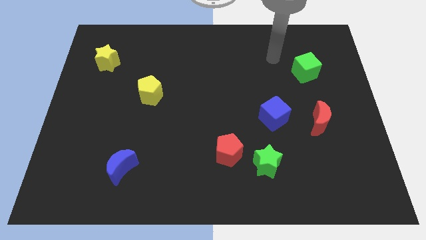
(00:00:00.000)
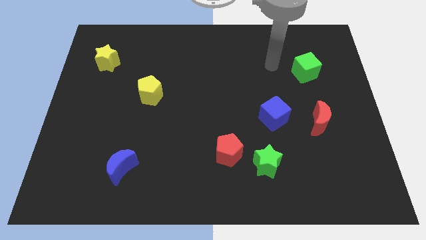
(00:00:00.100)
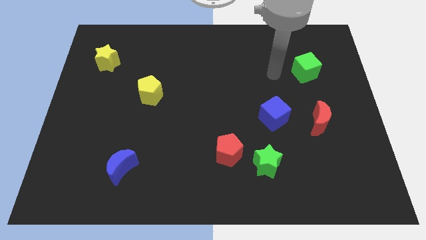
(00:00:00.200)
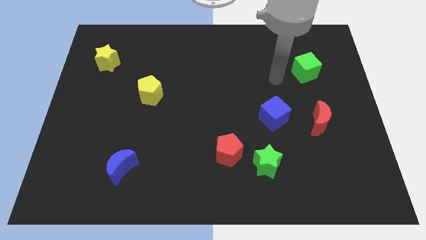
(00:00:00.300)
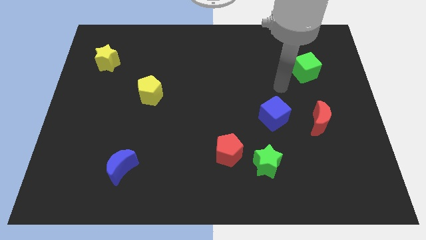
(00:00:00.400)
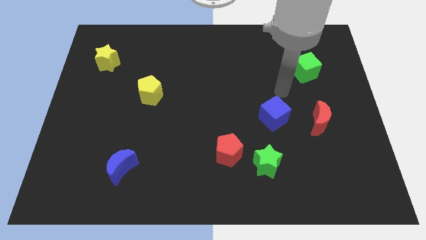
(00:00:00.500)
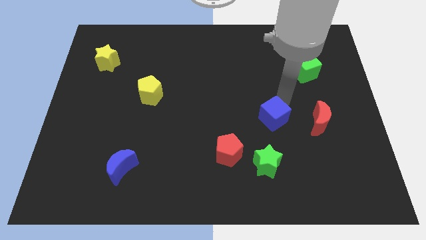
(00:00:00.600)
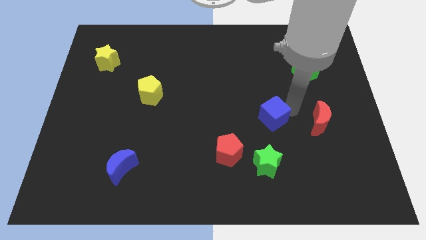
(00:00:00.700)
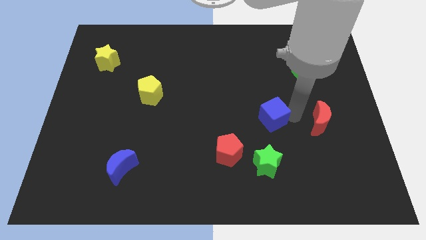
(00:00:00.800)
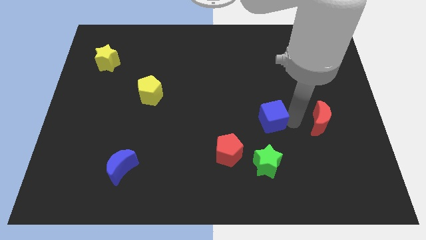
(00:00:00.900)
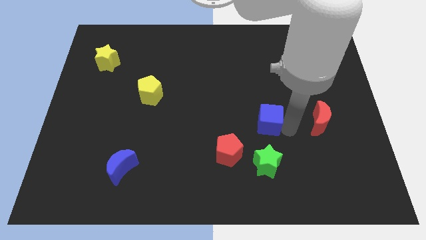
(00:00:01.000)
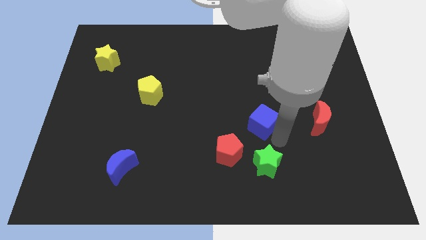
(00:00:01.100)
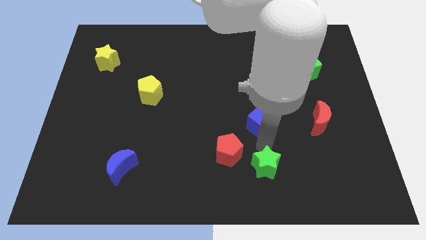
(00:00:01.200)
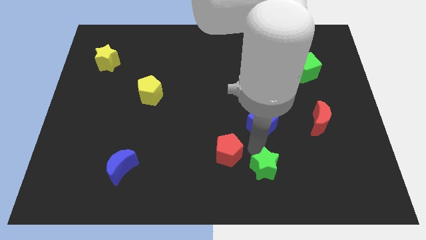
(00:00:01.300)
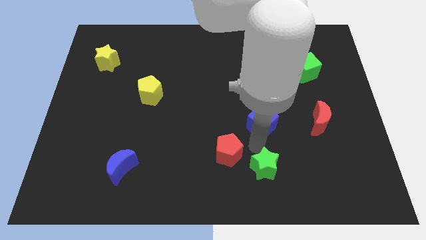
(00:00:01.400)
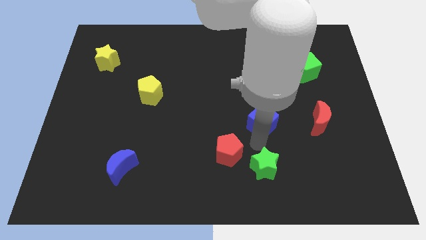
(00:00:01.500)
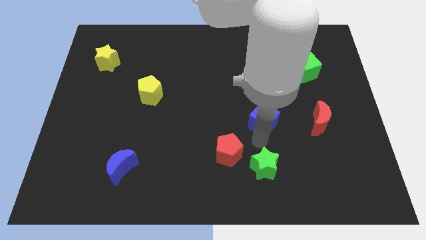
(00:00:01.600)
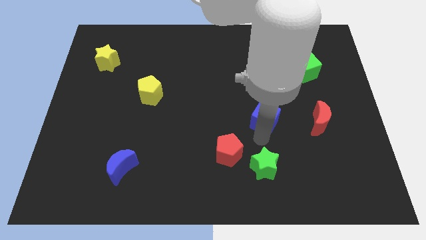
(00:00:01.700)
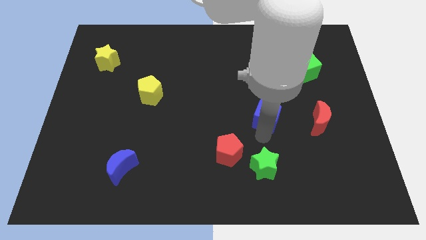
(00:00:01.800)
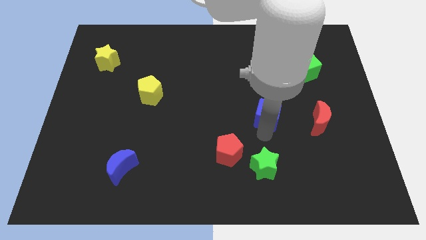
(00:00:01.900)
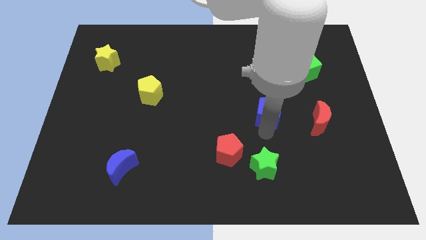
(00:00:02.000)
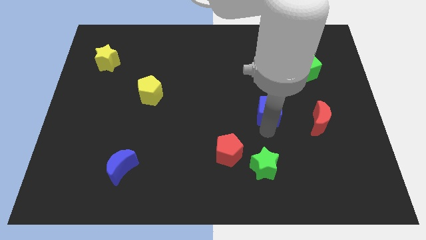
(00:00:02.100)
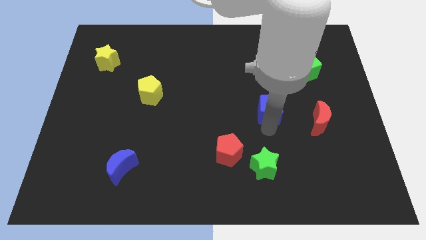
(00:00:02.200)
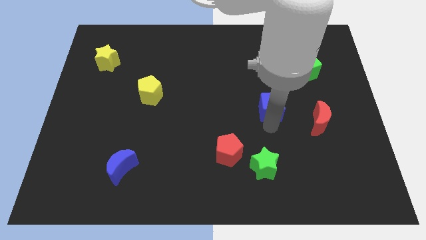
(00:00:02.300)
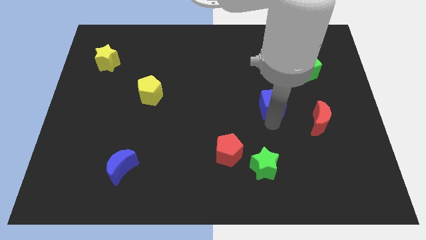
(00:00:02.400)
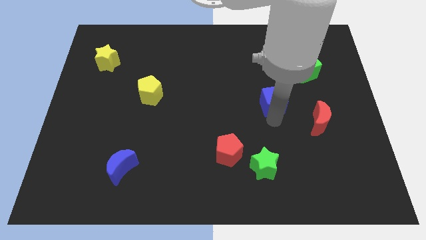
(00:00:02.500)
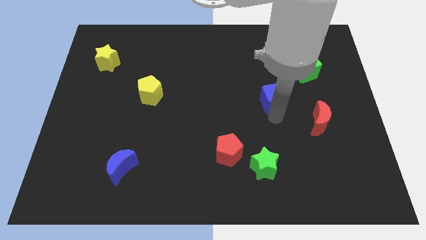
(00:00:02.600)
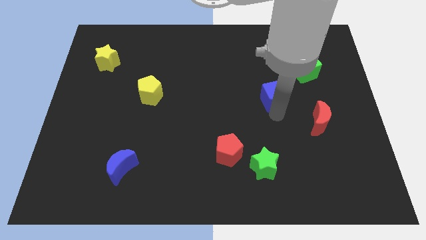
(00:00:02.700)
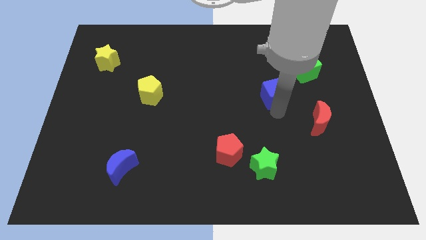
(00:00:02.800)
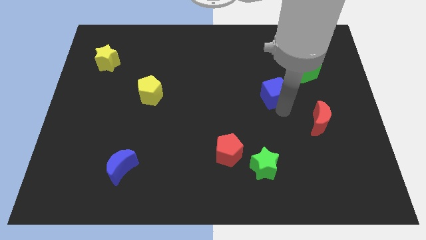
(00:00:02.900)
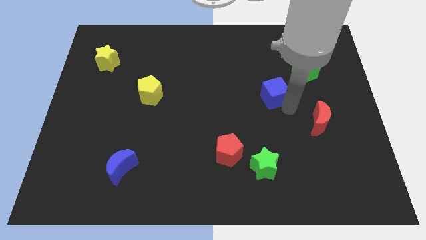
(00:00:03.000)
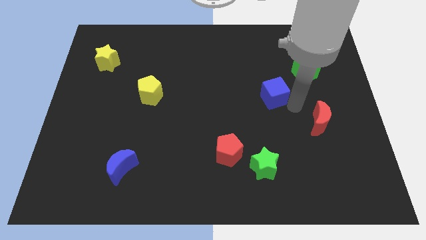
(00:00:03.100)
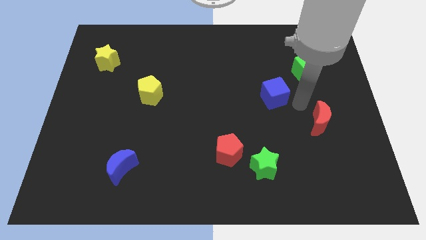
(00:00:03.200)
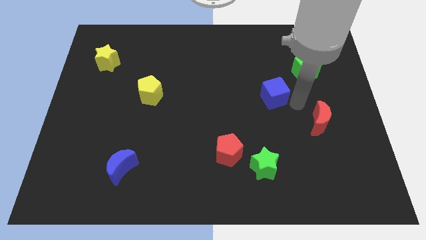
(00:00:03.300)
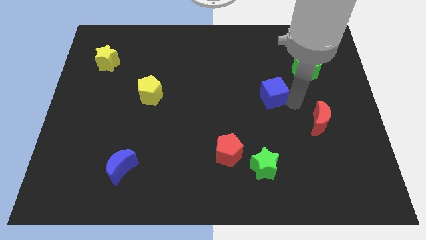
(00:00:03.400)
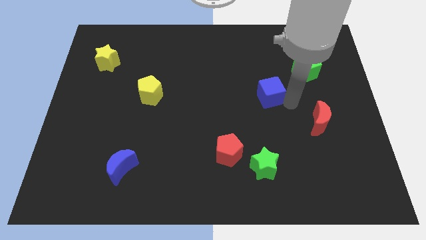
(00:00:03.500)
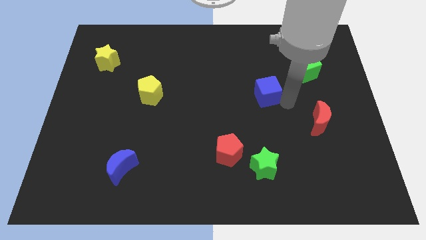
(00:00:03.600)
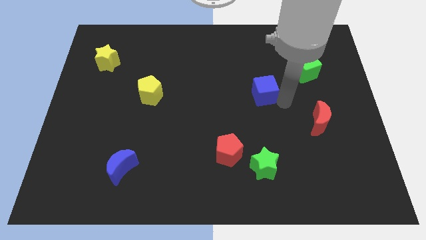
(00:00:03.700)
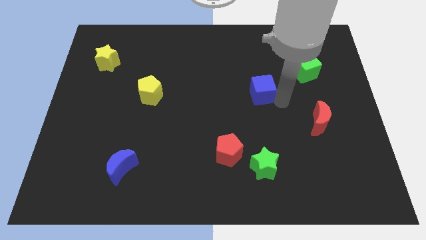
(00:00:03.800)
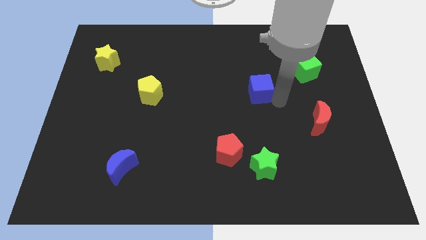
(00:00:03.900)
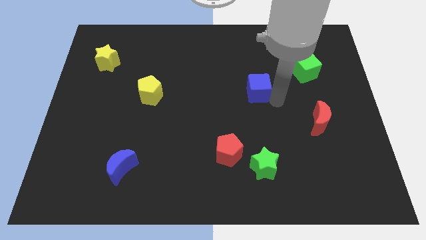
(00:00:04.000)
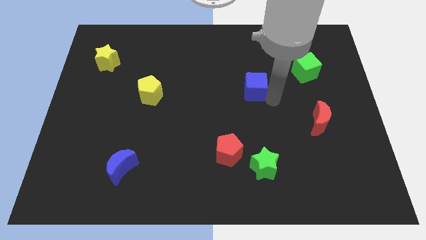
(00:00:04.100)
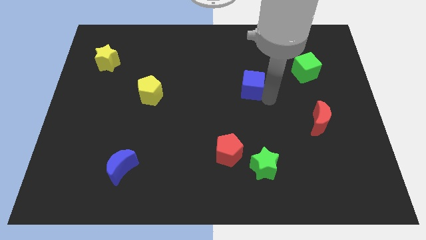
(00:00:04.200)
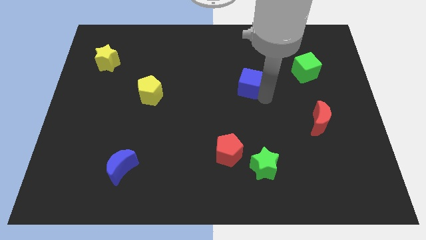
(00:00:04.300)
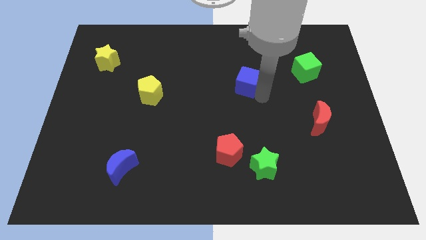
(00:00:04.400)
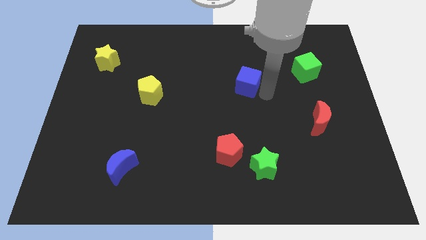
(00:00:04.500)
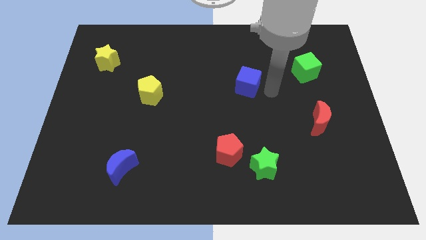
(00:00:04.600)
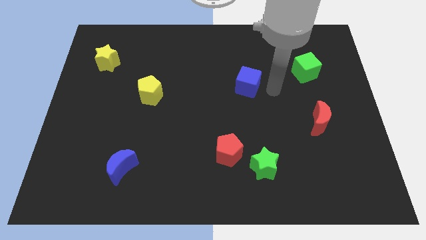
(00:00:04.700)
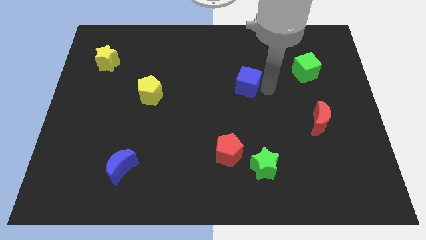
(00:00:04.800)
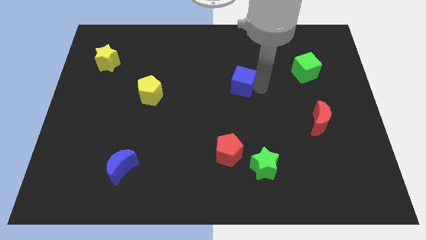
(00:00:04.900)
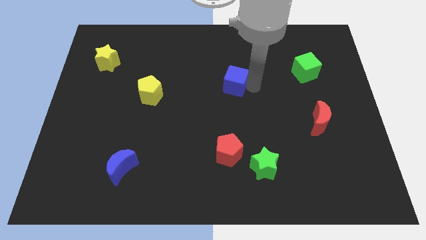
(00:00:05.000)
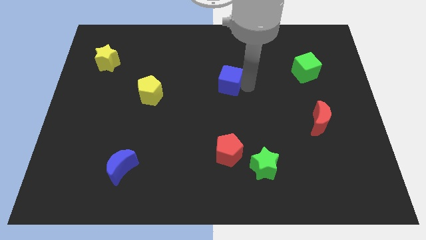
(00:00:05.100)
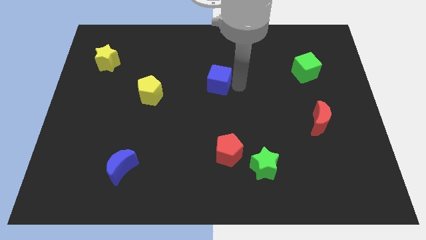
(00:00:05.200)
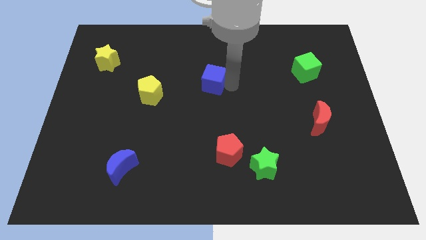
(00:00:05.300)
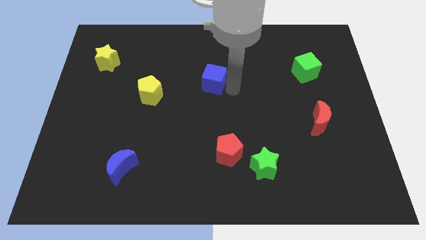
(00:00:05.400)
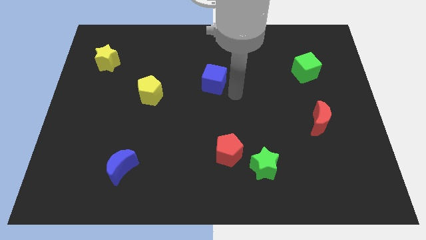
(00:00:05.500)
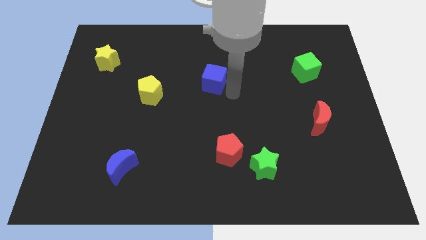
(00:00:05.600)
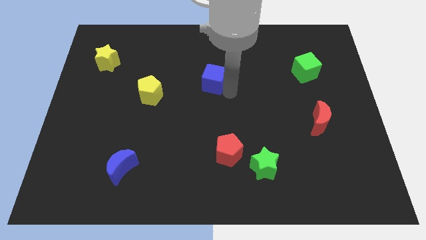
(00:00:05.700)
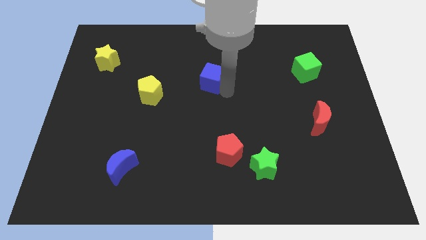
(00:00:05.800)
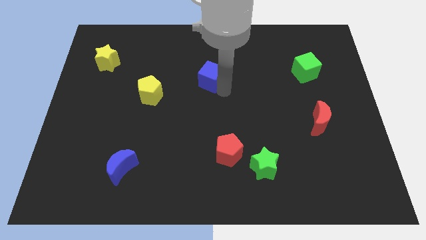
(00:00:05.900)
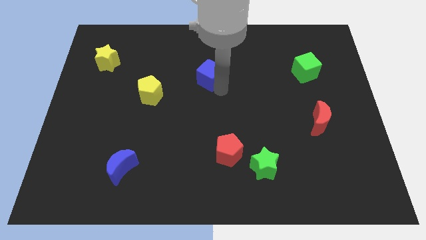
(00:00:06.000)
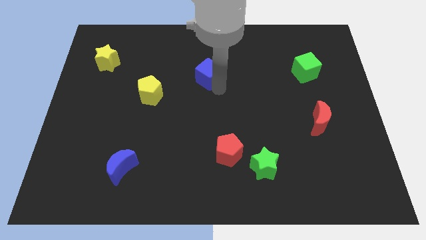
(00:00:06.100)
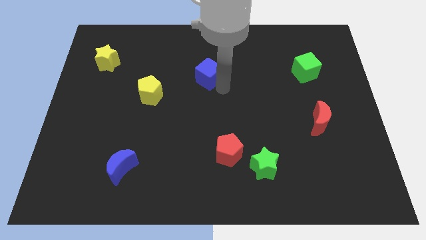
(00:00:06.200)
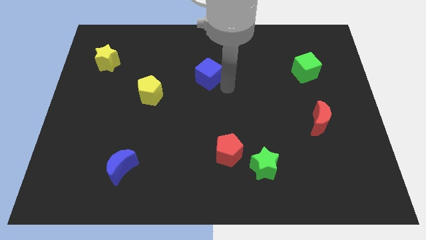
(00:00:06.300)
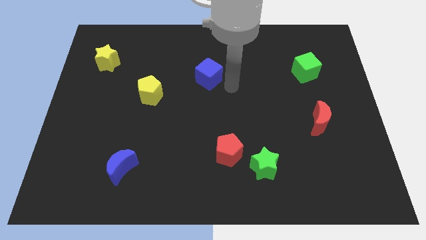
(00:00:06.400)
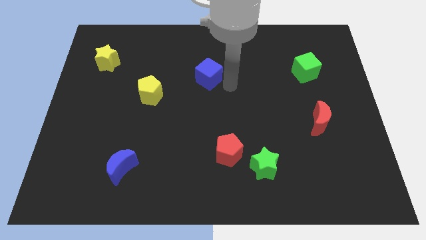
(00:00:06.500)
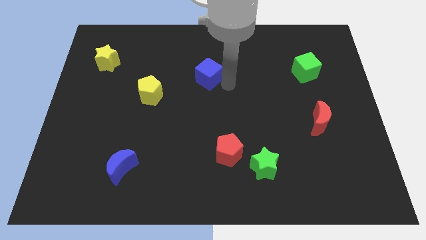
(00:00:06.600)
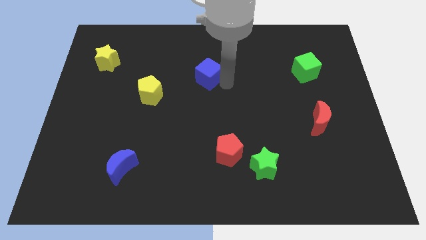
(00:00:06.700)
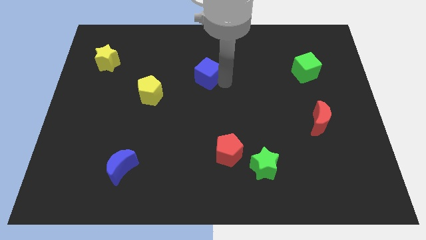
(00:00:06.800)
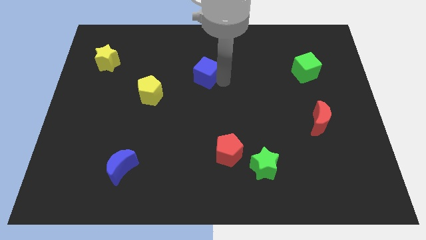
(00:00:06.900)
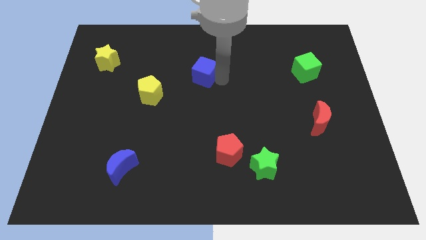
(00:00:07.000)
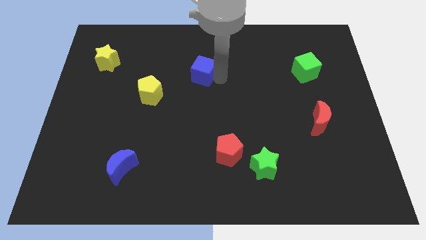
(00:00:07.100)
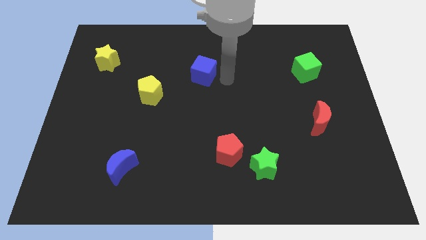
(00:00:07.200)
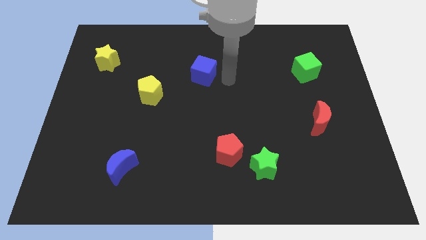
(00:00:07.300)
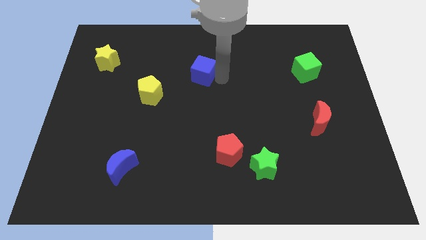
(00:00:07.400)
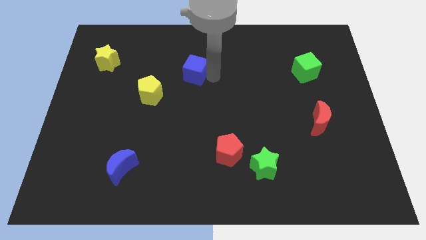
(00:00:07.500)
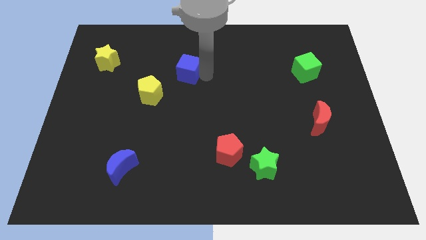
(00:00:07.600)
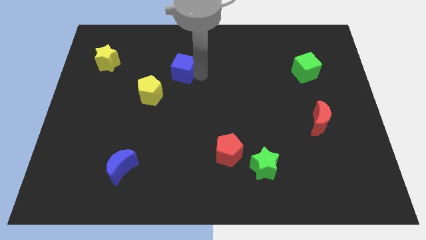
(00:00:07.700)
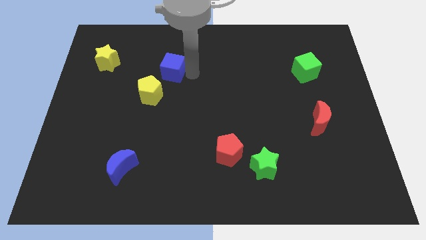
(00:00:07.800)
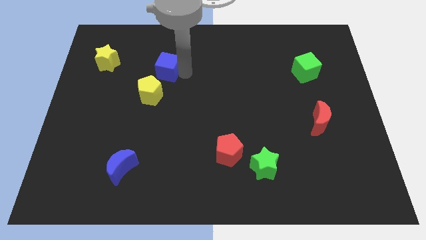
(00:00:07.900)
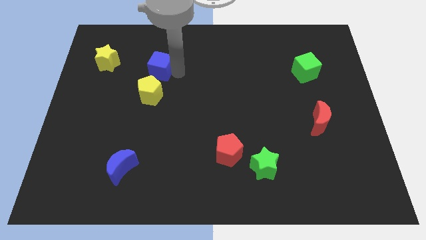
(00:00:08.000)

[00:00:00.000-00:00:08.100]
move the blue cube to the right of the yellow star
